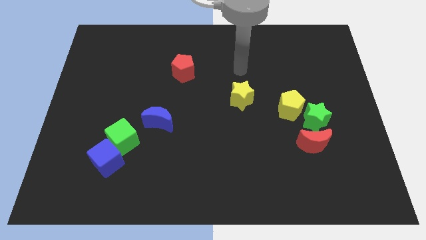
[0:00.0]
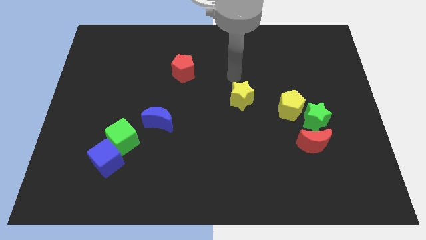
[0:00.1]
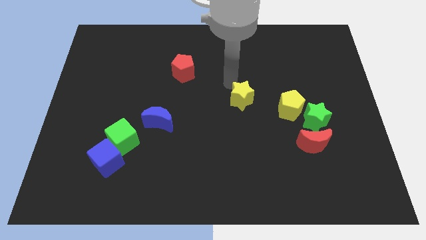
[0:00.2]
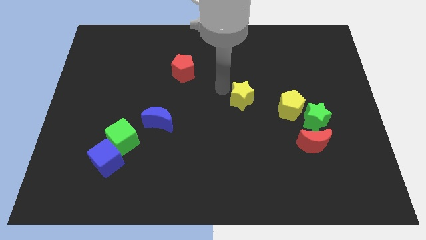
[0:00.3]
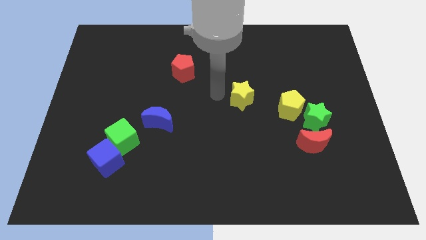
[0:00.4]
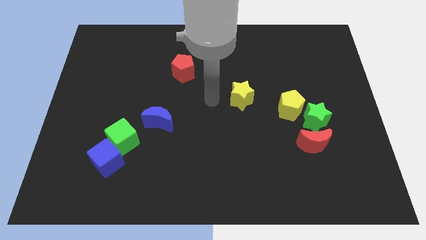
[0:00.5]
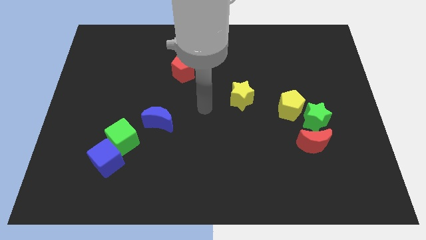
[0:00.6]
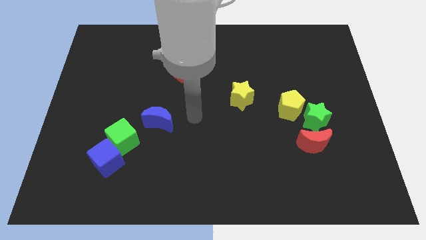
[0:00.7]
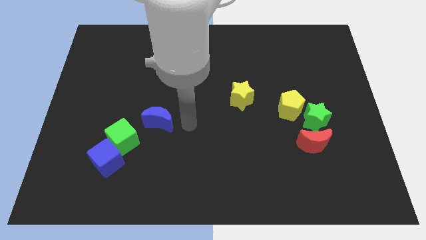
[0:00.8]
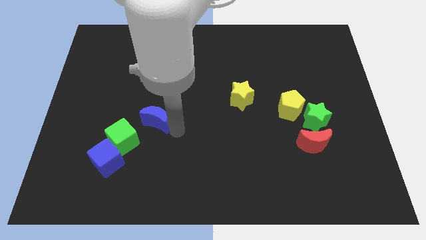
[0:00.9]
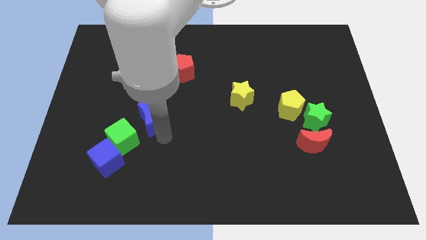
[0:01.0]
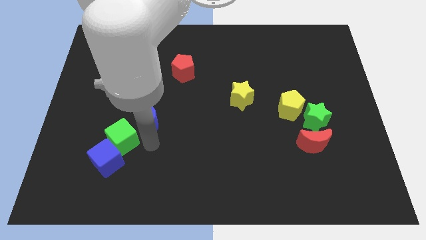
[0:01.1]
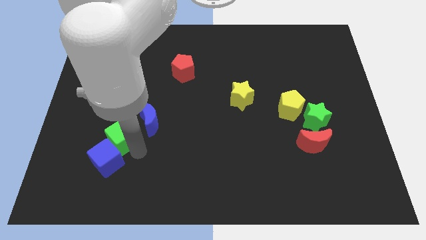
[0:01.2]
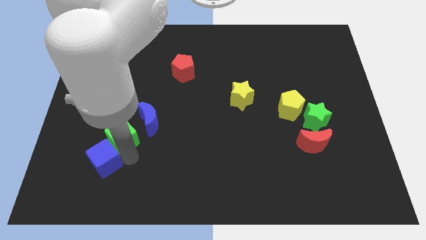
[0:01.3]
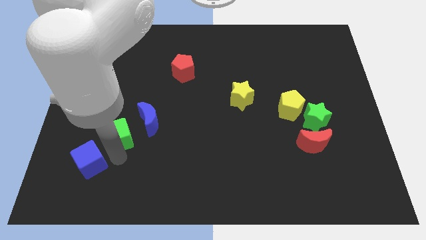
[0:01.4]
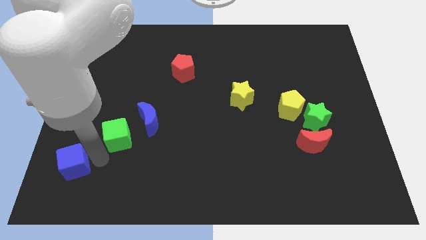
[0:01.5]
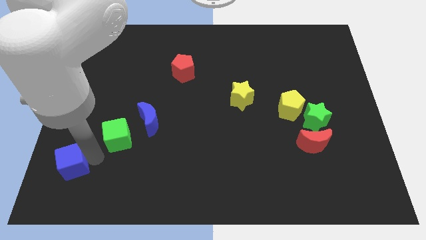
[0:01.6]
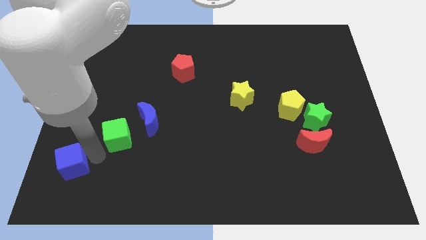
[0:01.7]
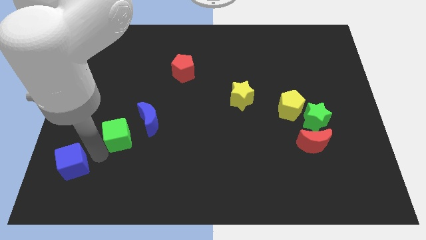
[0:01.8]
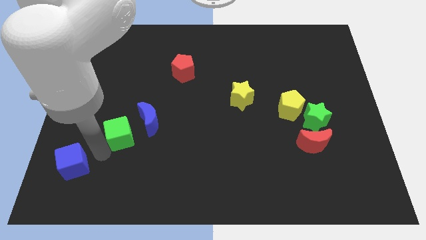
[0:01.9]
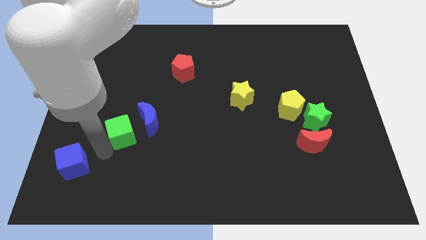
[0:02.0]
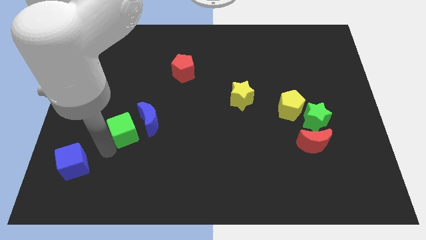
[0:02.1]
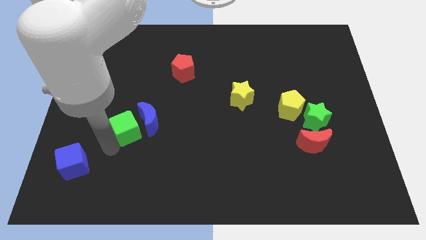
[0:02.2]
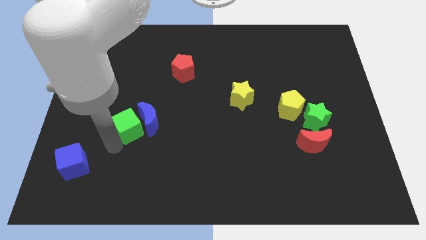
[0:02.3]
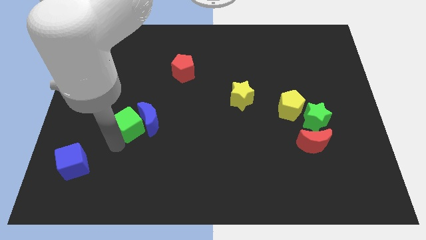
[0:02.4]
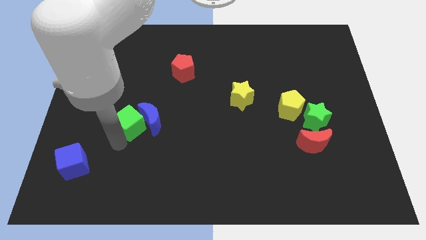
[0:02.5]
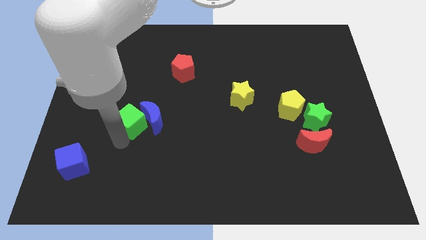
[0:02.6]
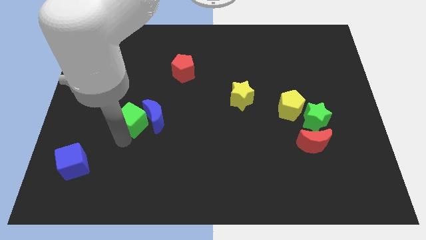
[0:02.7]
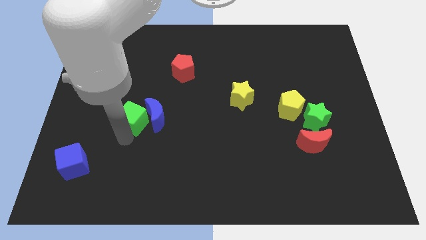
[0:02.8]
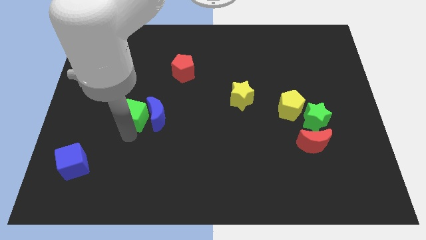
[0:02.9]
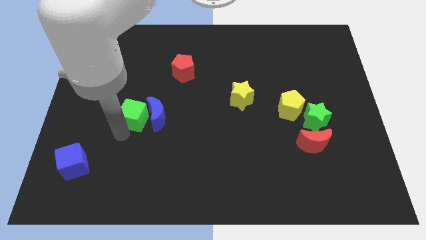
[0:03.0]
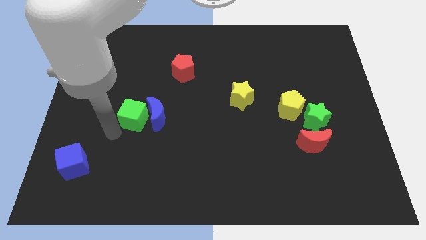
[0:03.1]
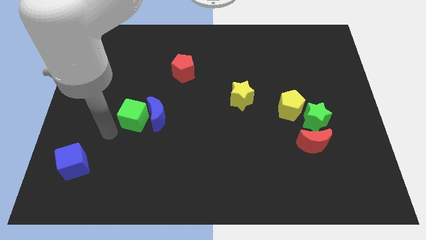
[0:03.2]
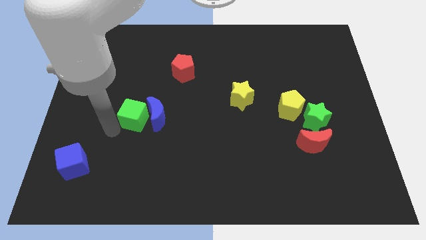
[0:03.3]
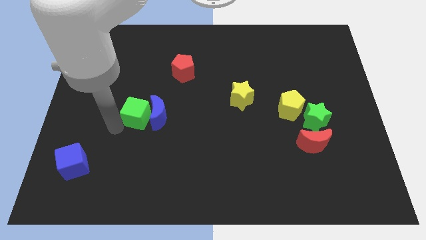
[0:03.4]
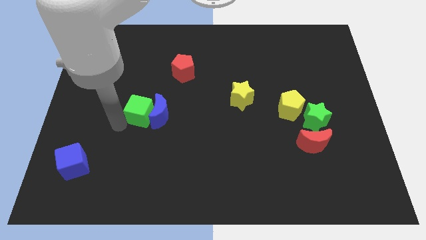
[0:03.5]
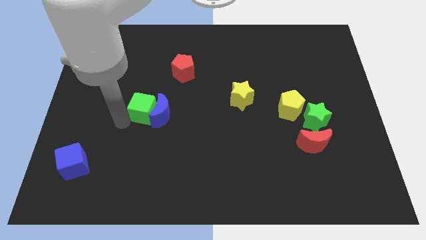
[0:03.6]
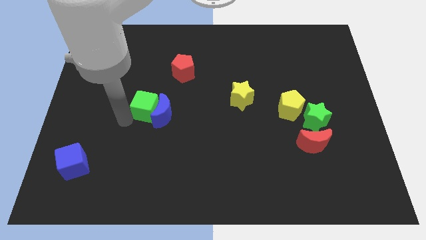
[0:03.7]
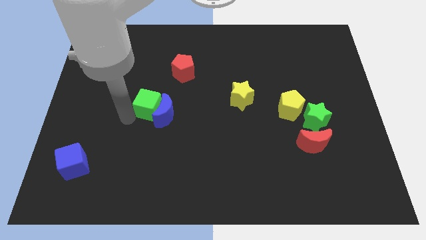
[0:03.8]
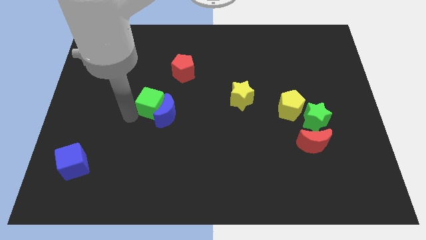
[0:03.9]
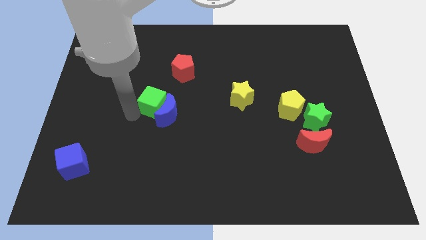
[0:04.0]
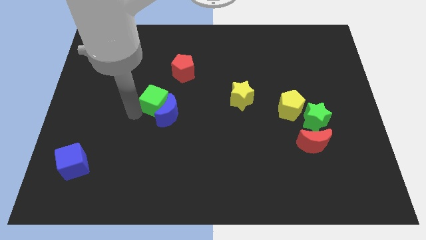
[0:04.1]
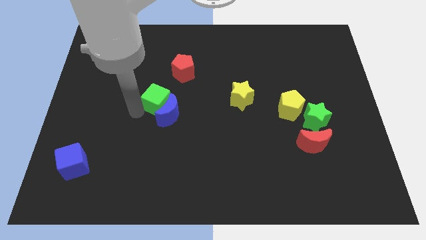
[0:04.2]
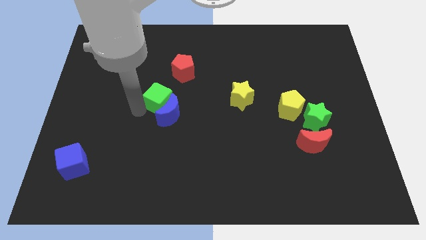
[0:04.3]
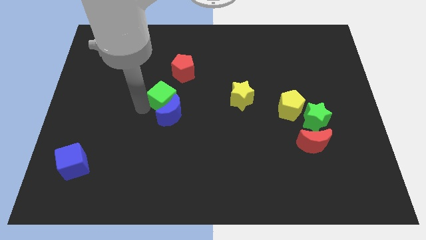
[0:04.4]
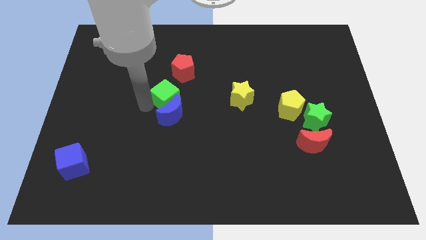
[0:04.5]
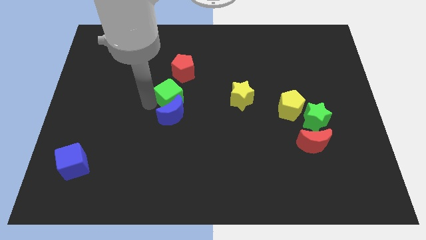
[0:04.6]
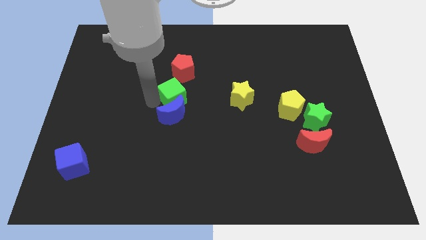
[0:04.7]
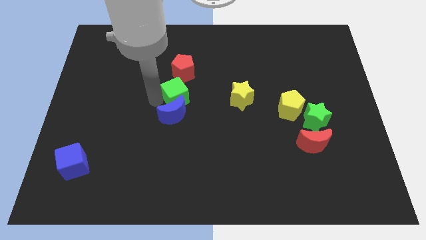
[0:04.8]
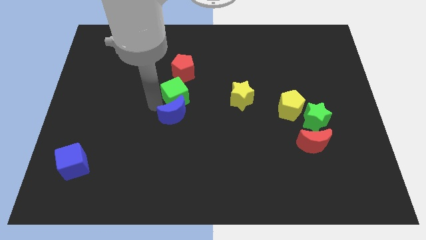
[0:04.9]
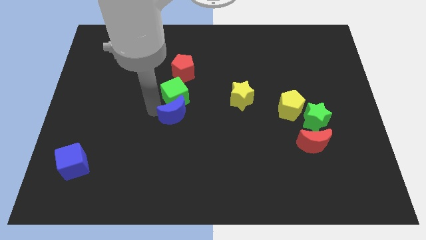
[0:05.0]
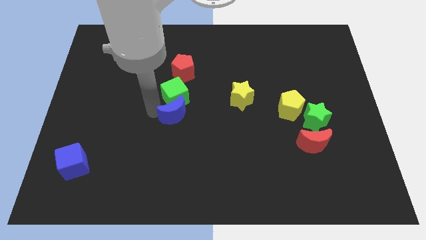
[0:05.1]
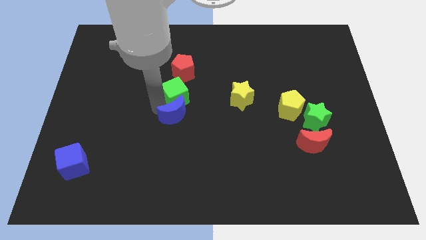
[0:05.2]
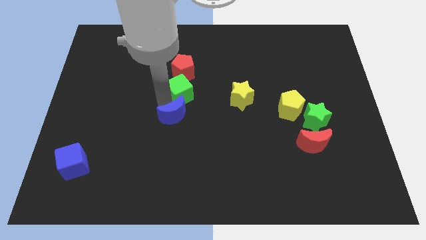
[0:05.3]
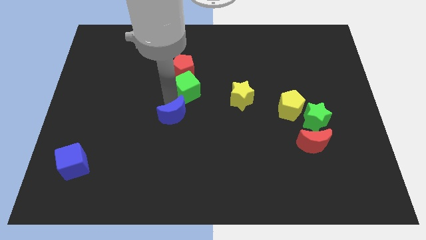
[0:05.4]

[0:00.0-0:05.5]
move the green cube upwards and then to the right

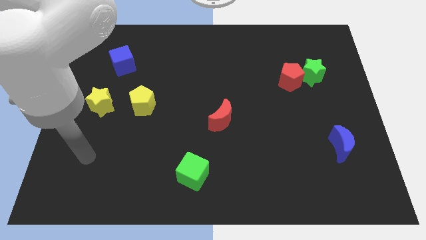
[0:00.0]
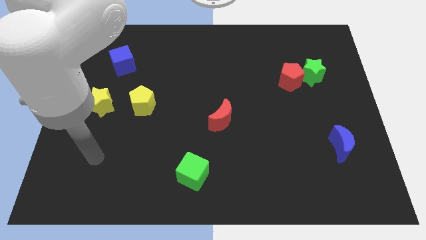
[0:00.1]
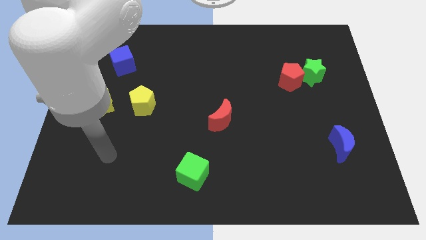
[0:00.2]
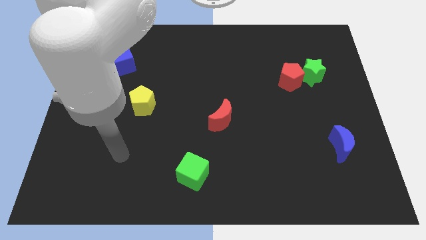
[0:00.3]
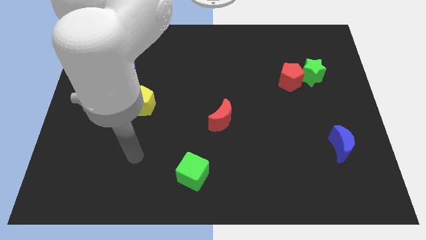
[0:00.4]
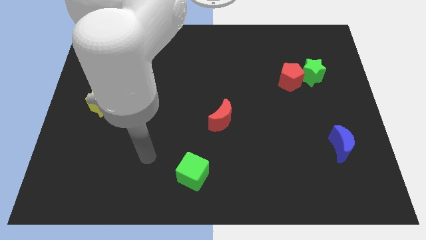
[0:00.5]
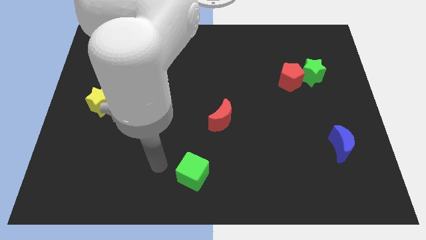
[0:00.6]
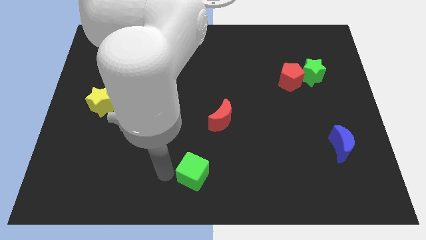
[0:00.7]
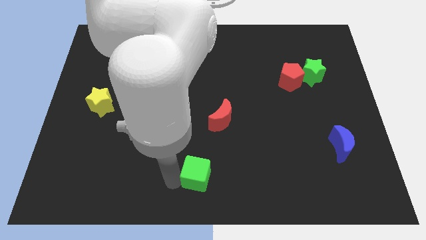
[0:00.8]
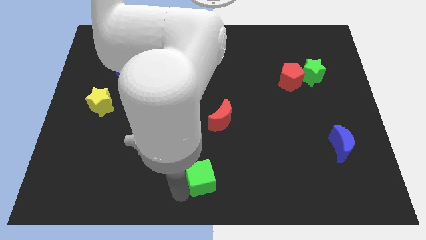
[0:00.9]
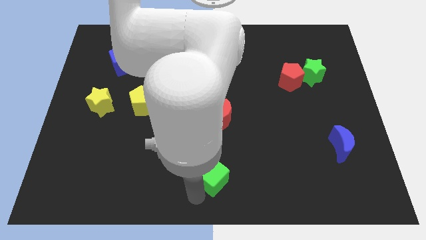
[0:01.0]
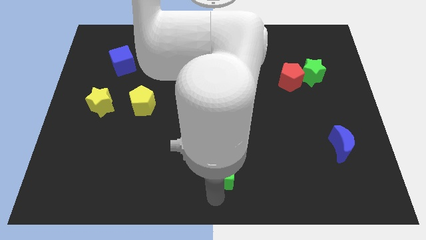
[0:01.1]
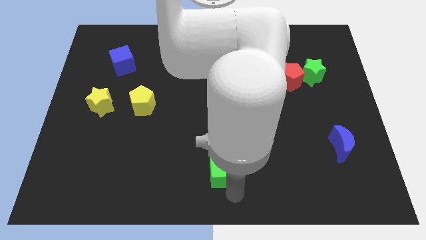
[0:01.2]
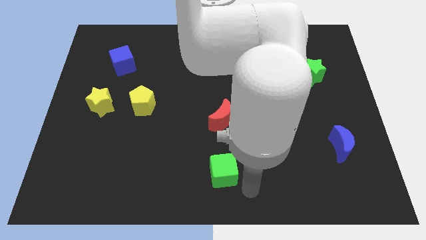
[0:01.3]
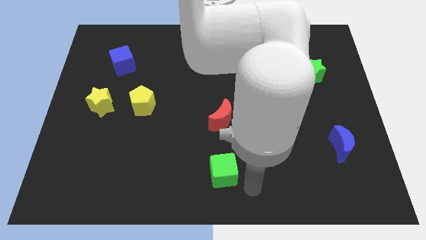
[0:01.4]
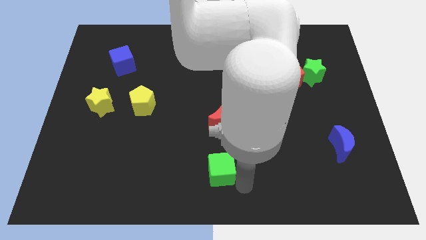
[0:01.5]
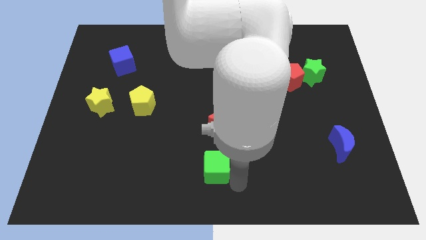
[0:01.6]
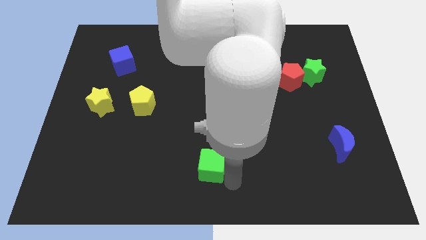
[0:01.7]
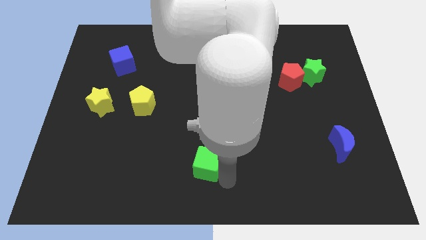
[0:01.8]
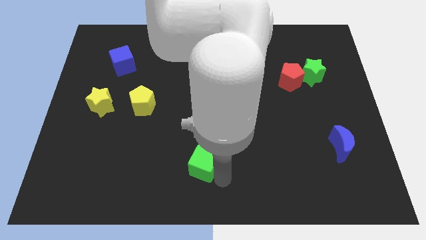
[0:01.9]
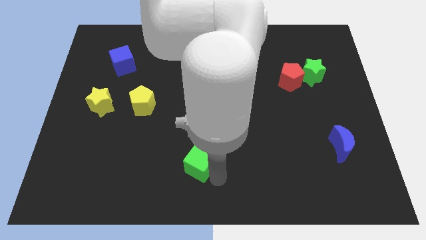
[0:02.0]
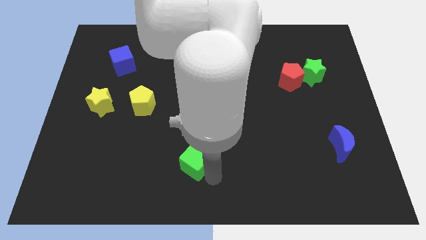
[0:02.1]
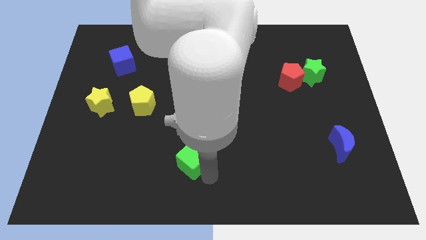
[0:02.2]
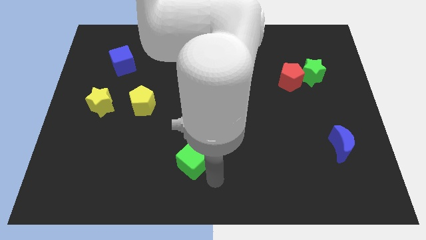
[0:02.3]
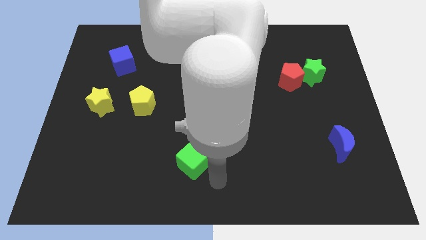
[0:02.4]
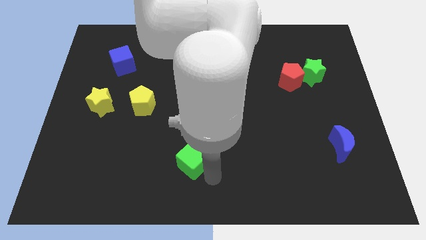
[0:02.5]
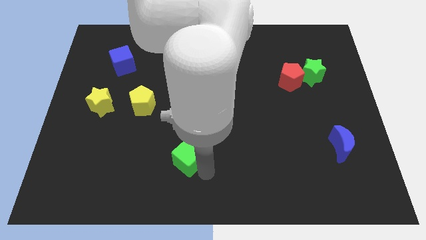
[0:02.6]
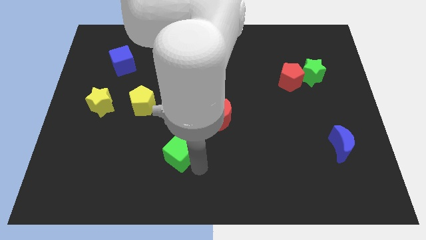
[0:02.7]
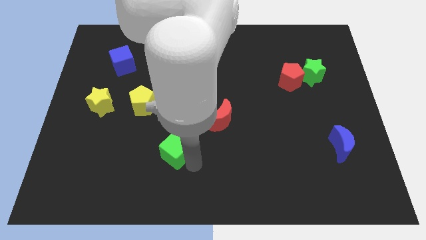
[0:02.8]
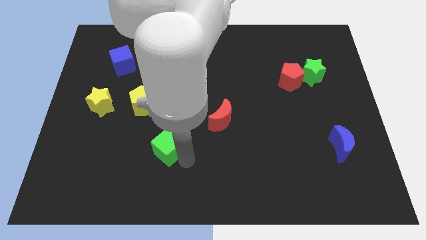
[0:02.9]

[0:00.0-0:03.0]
slightly push the green cube upwards and left
